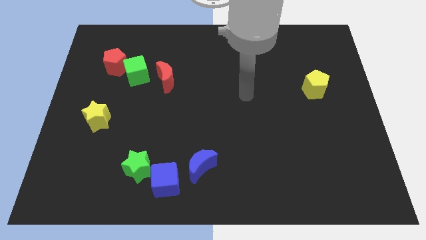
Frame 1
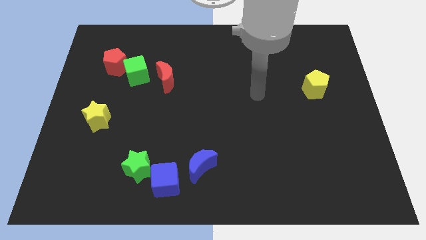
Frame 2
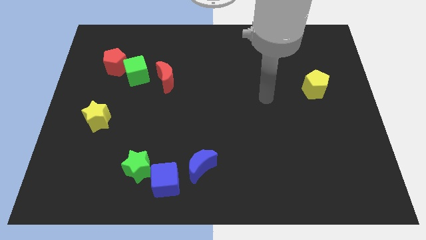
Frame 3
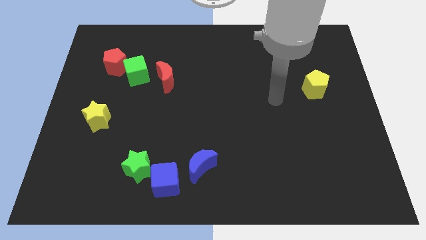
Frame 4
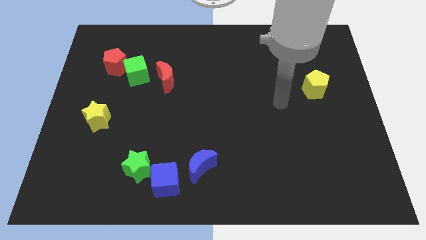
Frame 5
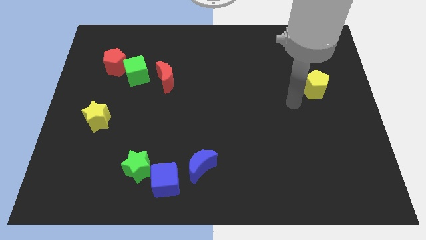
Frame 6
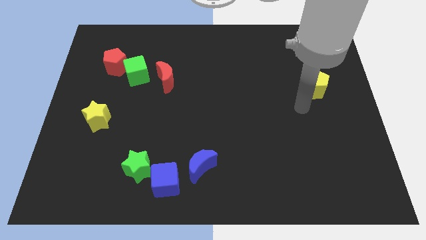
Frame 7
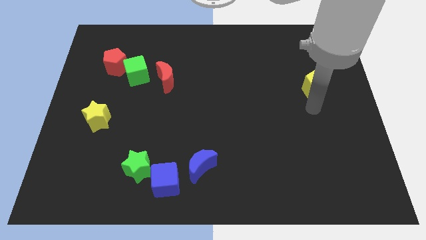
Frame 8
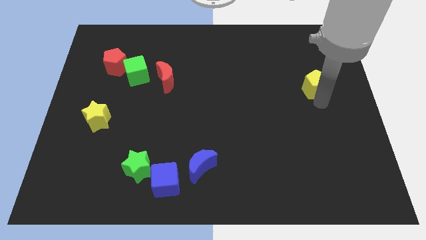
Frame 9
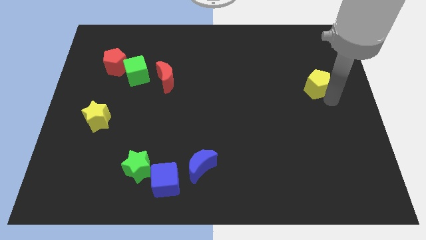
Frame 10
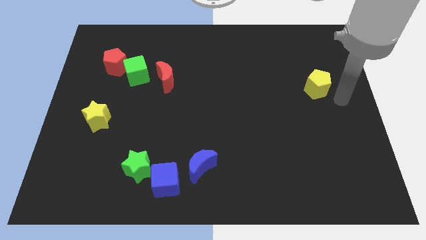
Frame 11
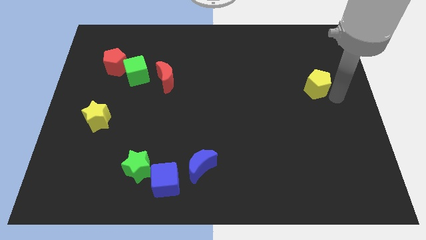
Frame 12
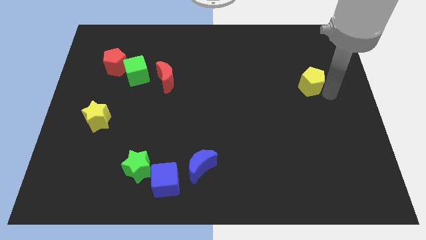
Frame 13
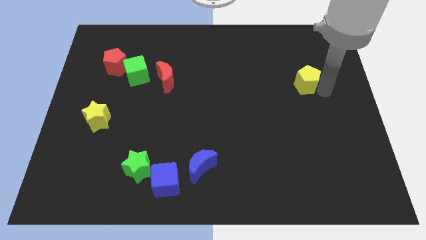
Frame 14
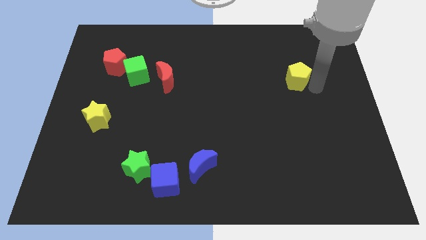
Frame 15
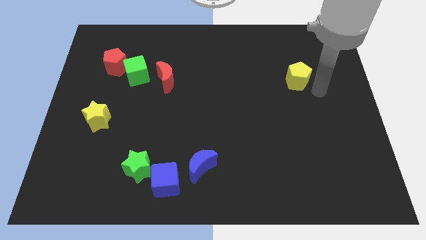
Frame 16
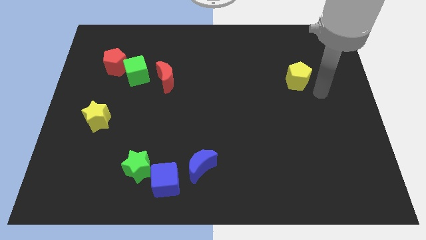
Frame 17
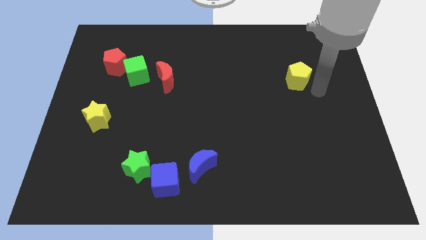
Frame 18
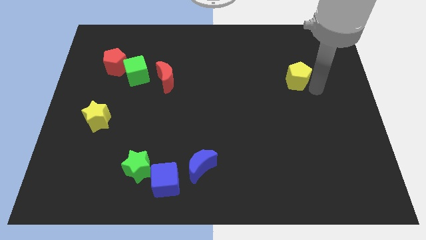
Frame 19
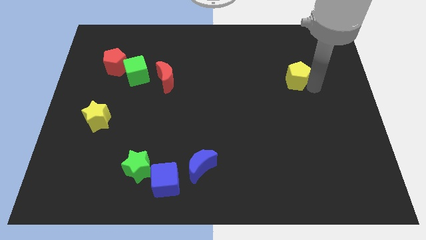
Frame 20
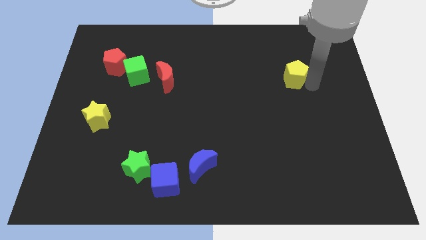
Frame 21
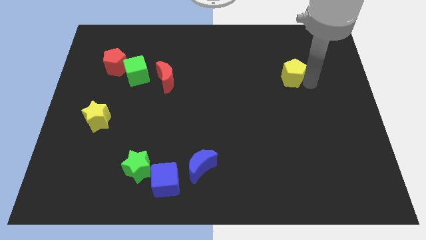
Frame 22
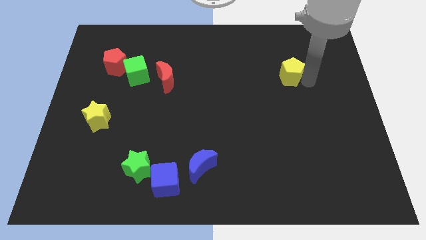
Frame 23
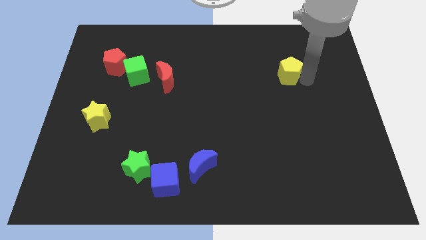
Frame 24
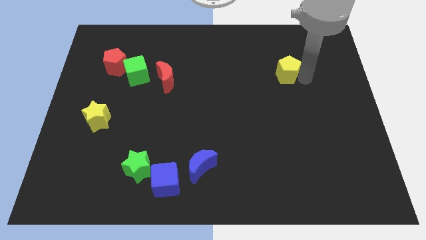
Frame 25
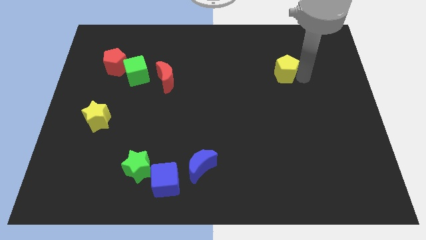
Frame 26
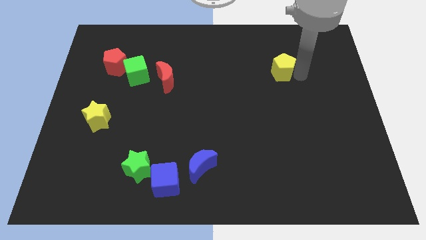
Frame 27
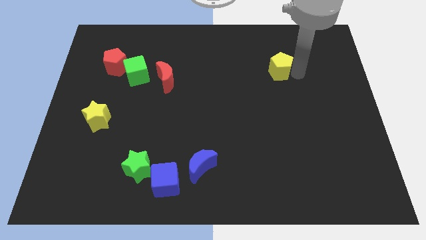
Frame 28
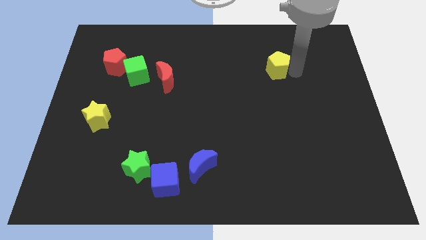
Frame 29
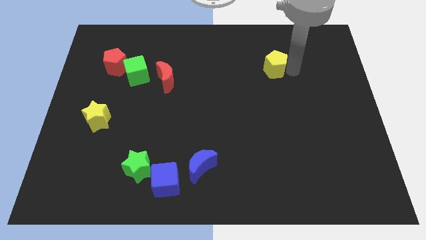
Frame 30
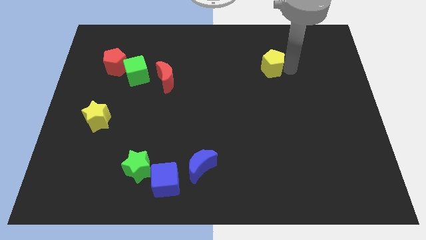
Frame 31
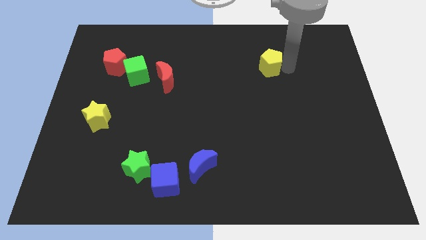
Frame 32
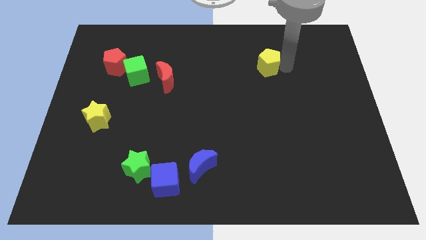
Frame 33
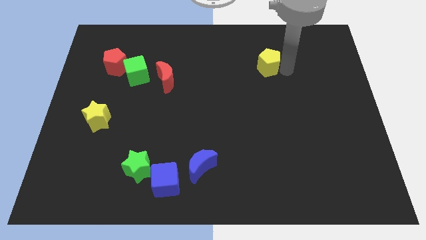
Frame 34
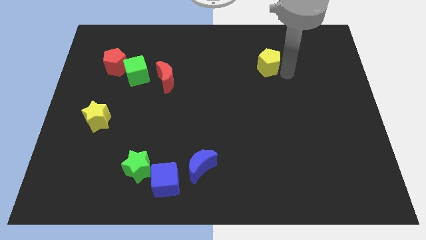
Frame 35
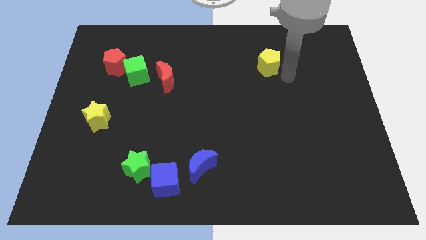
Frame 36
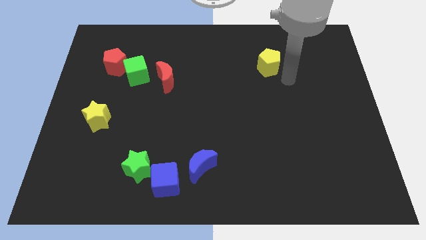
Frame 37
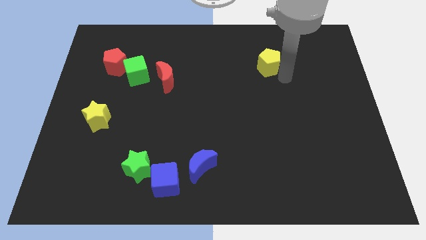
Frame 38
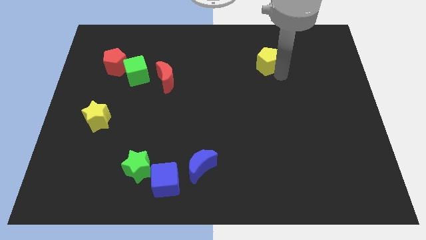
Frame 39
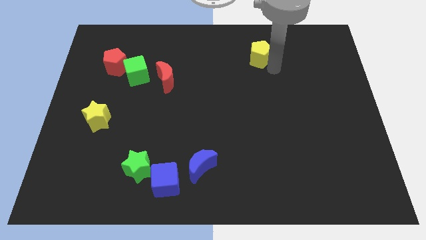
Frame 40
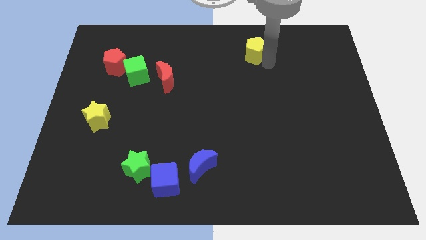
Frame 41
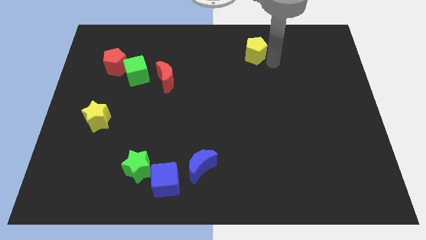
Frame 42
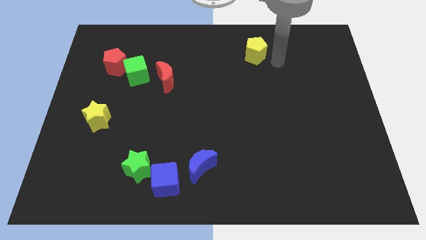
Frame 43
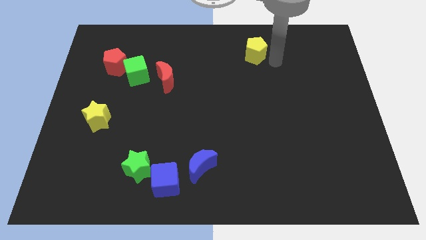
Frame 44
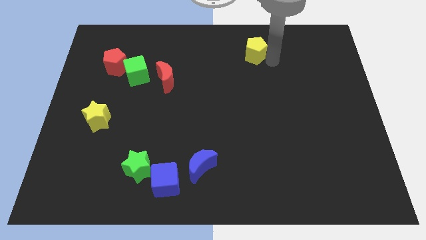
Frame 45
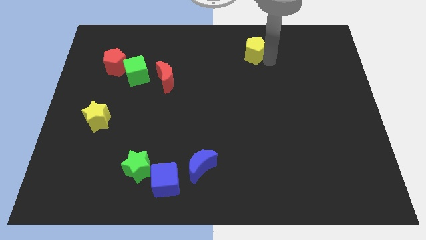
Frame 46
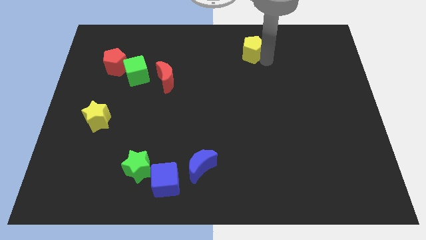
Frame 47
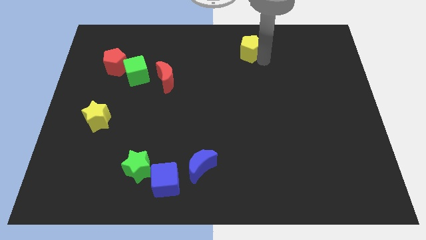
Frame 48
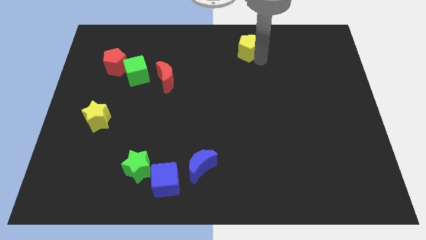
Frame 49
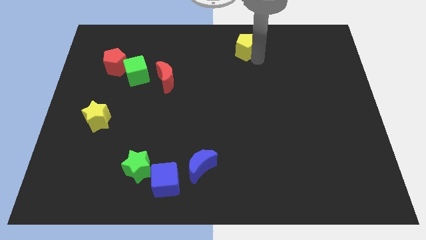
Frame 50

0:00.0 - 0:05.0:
push the yellow pentagon to the towards your base

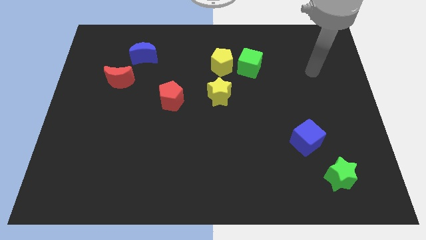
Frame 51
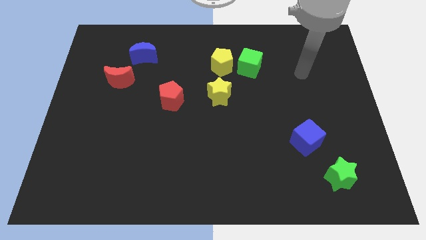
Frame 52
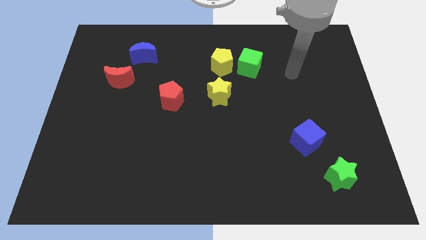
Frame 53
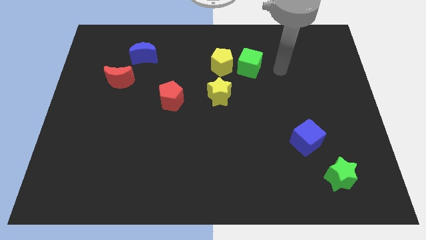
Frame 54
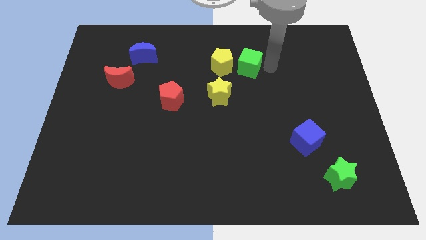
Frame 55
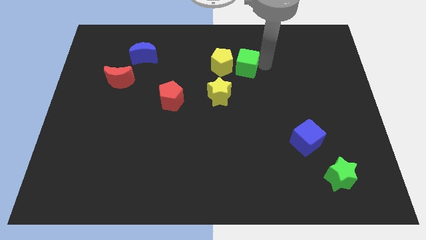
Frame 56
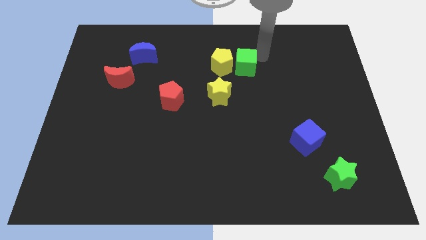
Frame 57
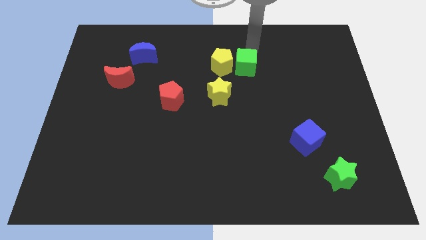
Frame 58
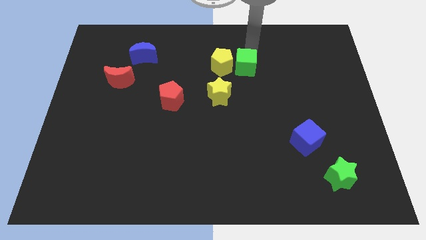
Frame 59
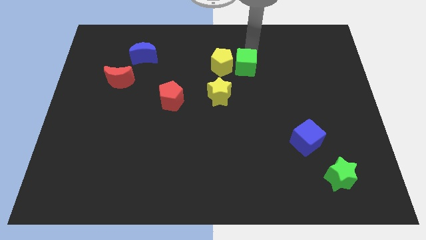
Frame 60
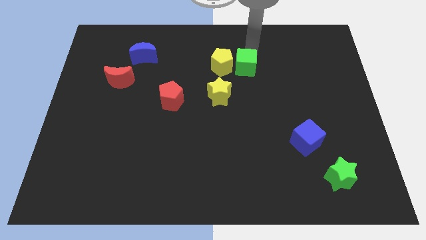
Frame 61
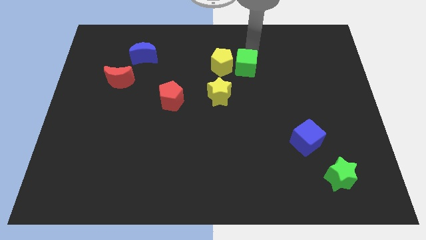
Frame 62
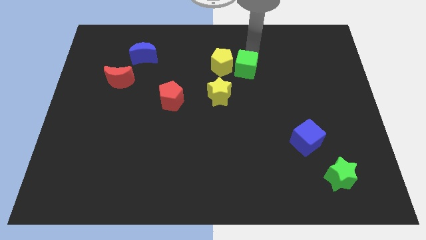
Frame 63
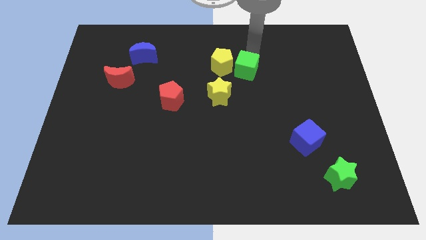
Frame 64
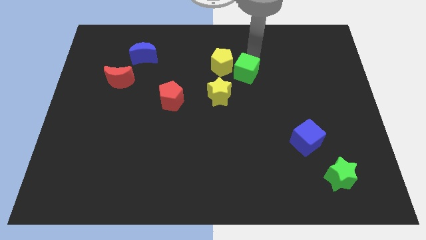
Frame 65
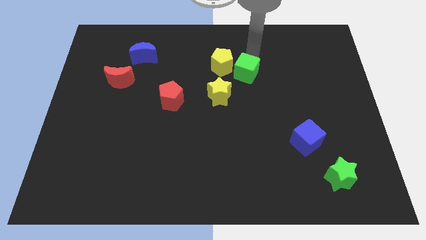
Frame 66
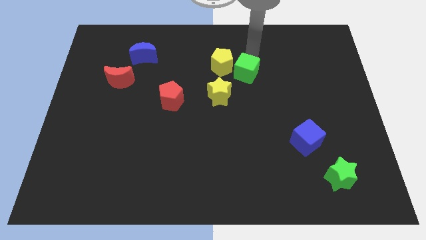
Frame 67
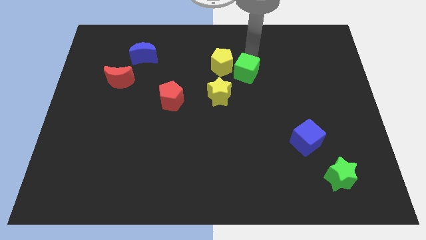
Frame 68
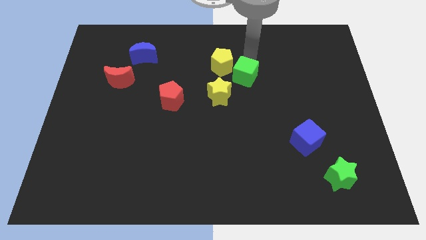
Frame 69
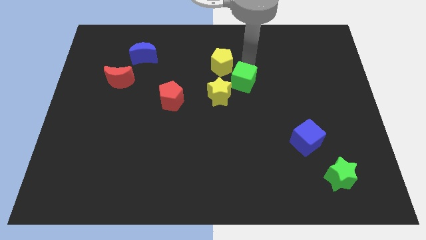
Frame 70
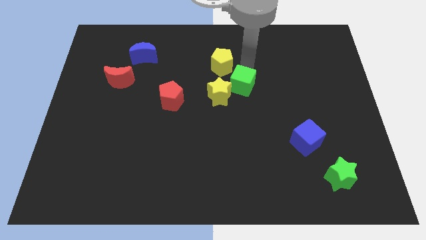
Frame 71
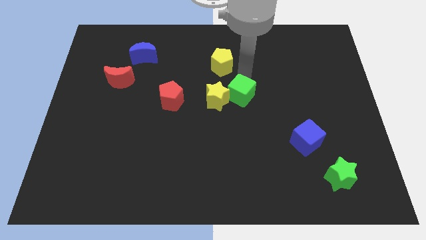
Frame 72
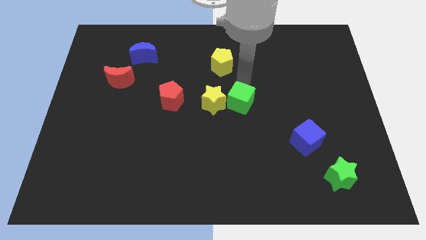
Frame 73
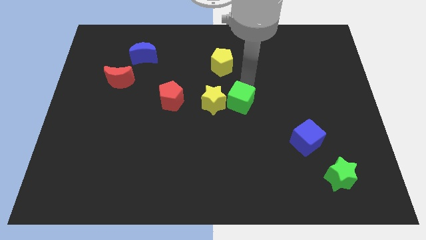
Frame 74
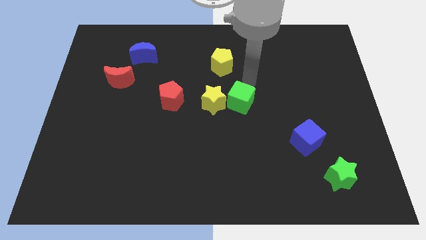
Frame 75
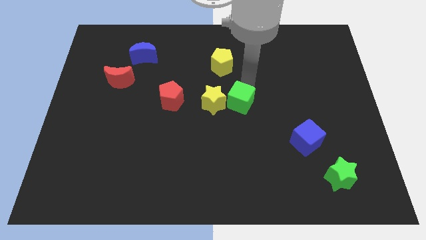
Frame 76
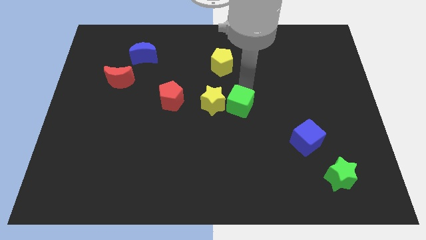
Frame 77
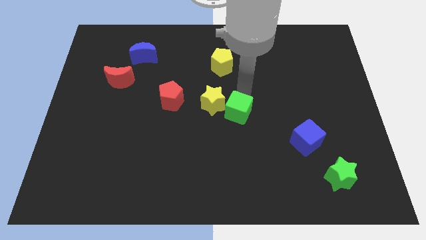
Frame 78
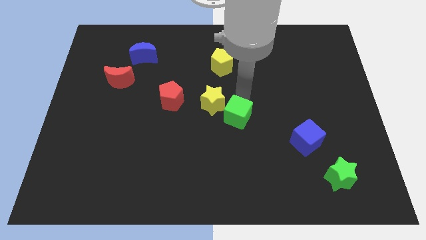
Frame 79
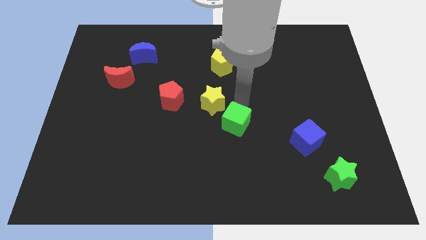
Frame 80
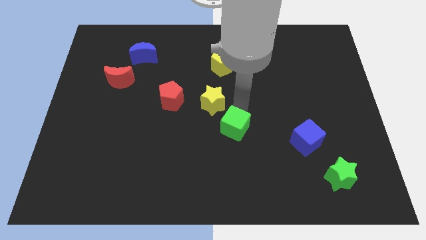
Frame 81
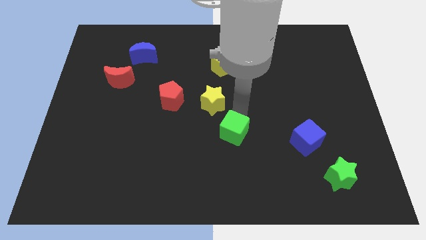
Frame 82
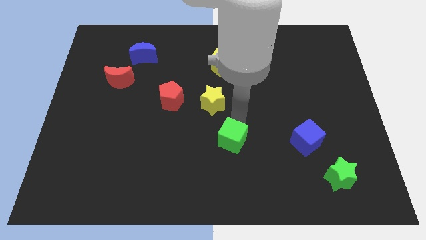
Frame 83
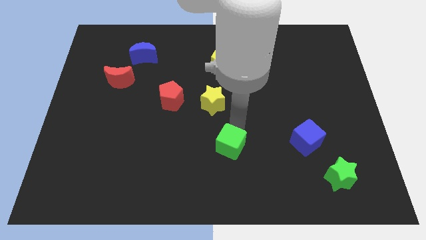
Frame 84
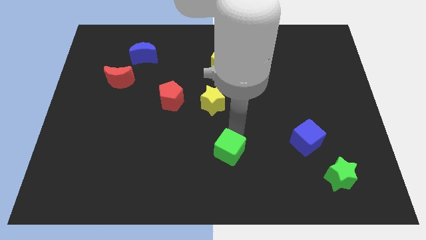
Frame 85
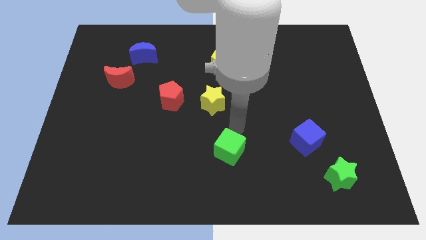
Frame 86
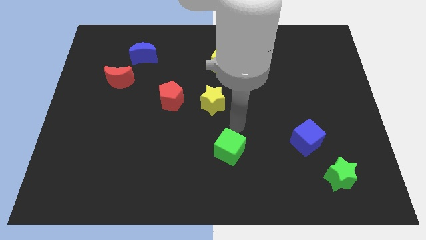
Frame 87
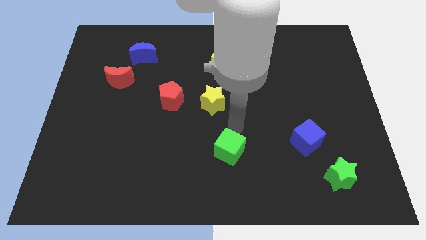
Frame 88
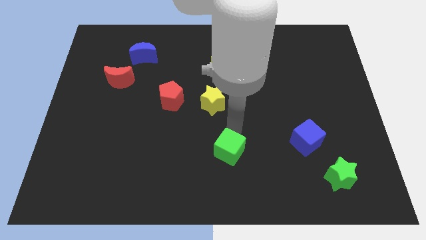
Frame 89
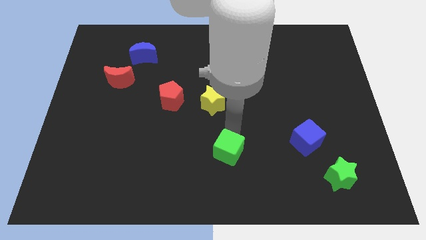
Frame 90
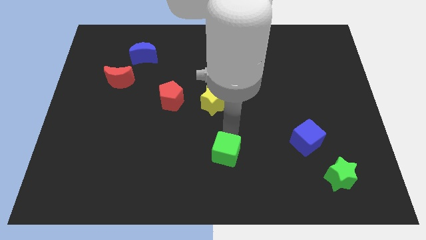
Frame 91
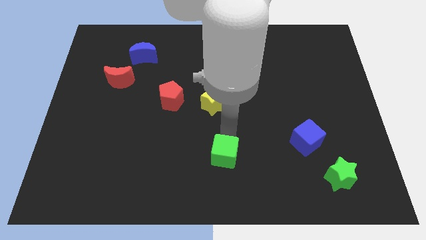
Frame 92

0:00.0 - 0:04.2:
push the green cube to the bottom side
